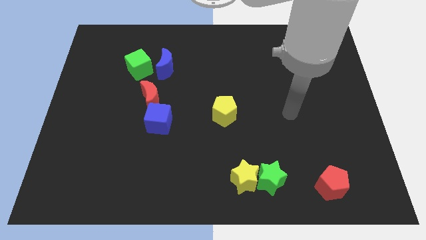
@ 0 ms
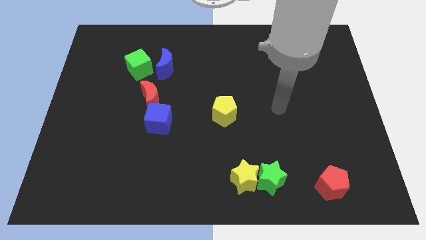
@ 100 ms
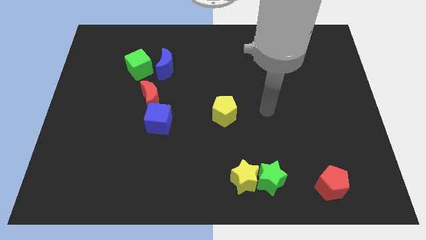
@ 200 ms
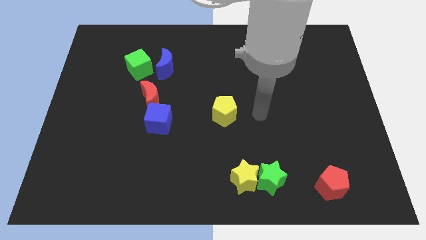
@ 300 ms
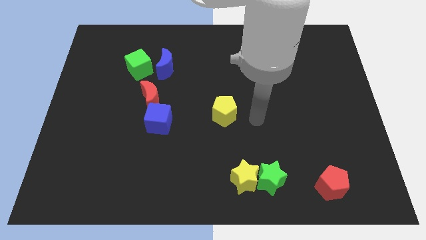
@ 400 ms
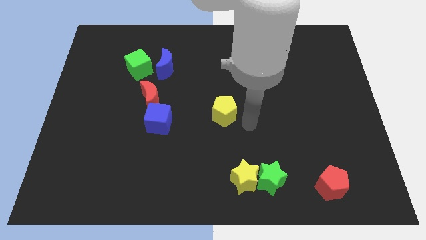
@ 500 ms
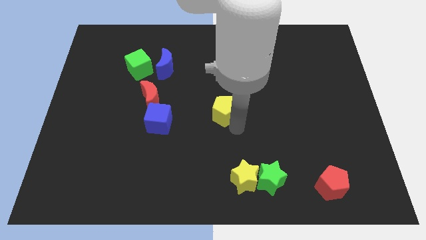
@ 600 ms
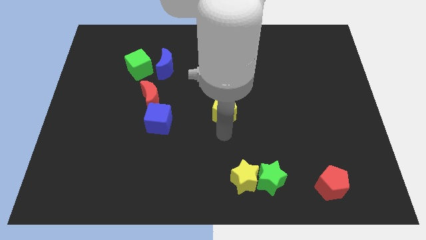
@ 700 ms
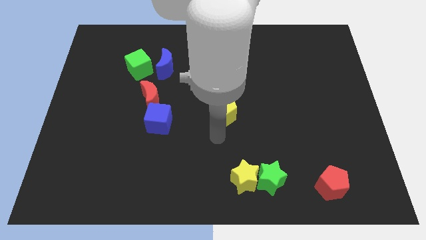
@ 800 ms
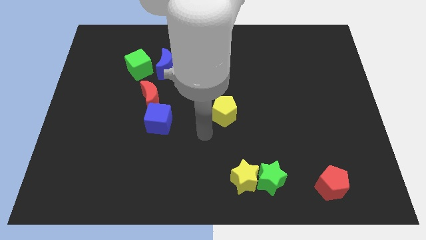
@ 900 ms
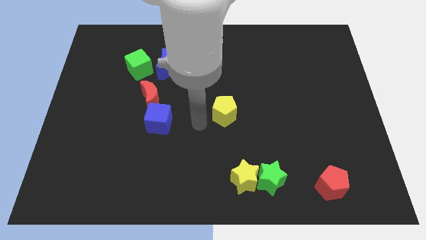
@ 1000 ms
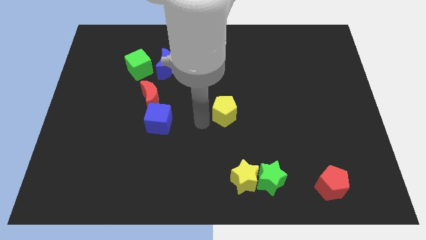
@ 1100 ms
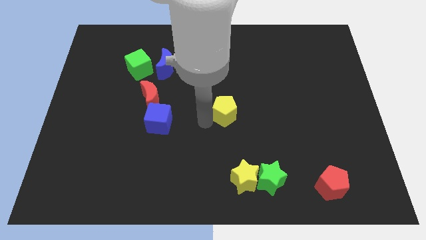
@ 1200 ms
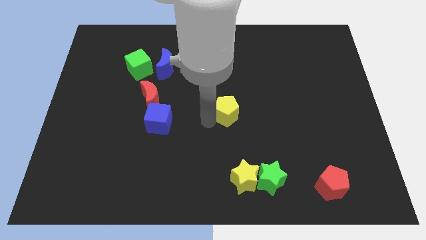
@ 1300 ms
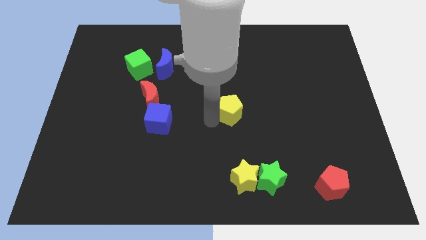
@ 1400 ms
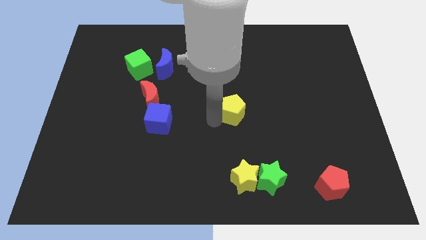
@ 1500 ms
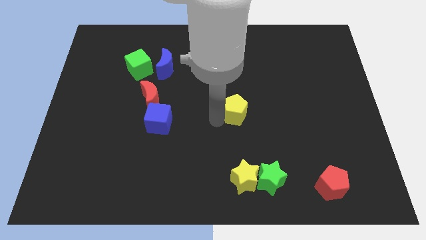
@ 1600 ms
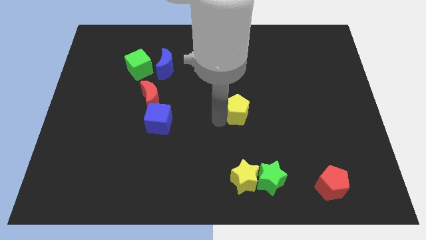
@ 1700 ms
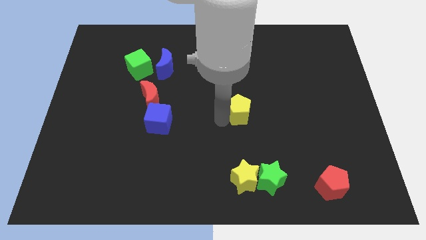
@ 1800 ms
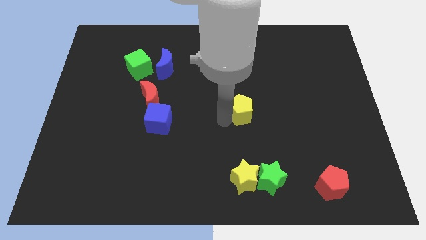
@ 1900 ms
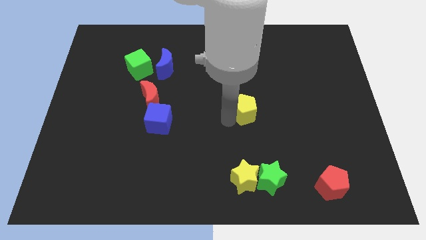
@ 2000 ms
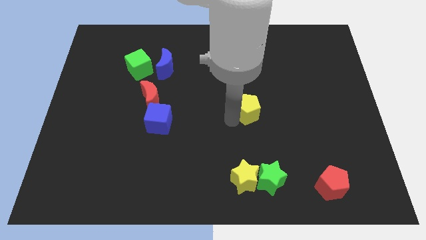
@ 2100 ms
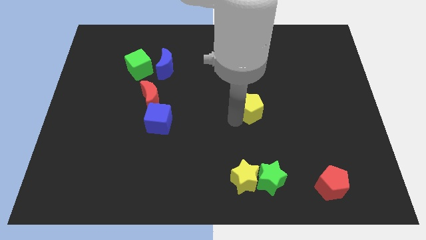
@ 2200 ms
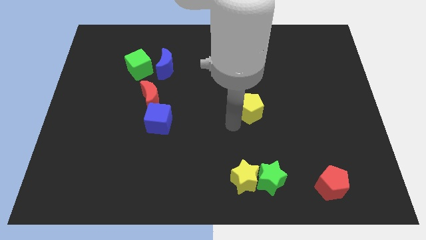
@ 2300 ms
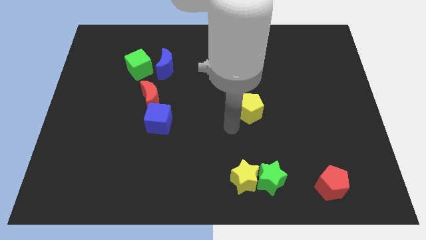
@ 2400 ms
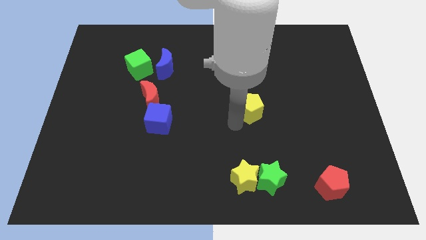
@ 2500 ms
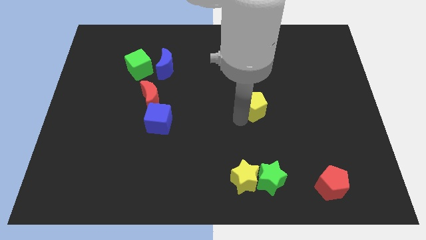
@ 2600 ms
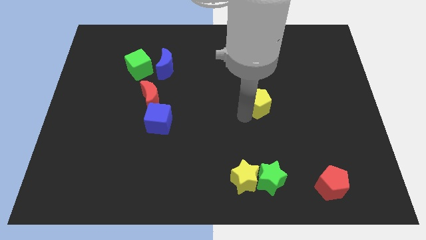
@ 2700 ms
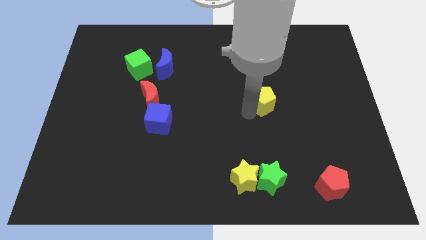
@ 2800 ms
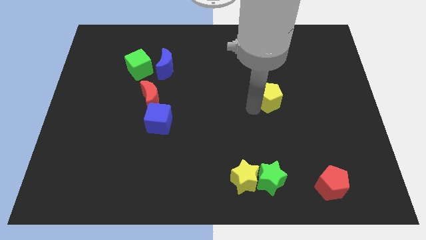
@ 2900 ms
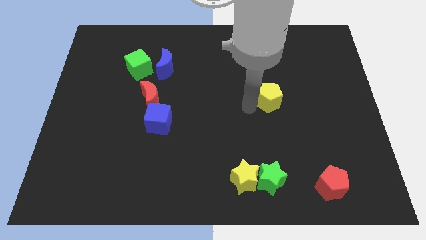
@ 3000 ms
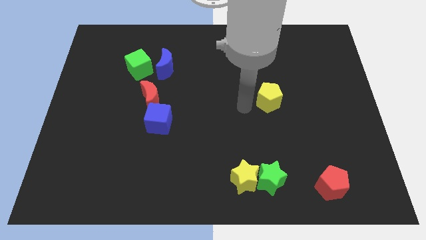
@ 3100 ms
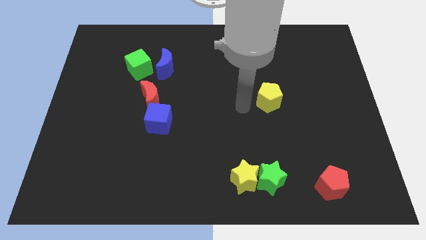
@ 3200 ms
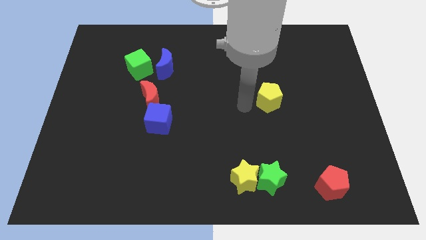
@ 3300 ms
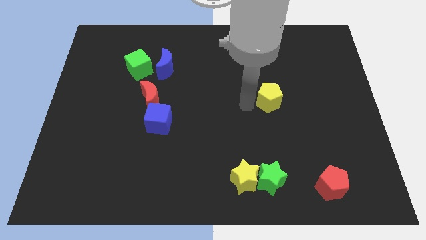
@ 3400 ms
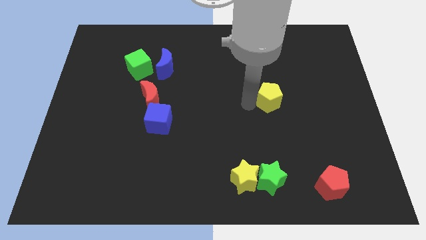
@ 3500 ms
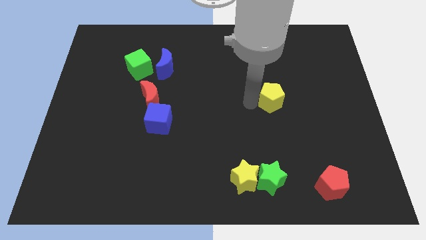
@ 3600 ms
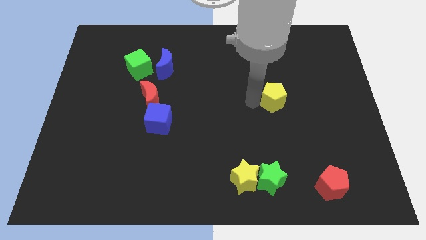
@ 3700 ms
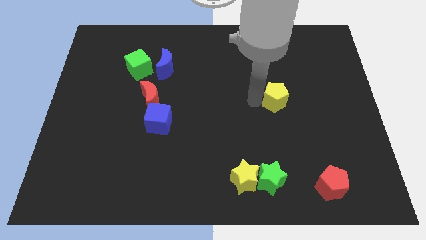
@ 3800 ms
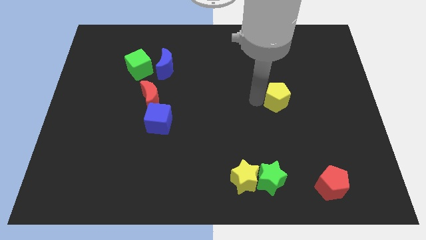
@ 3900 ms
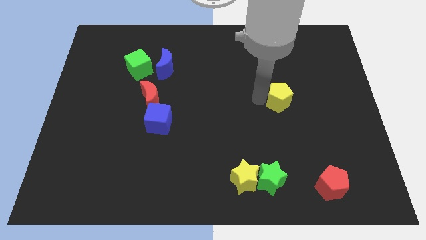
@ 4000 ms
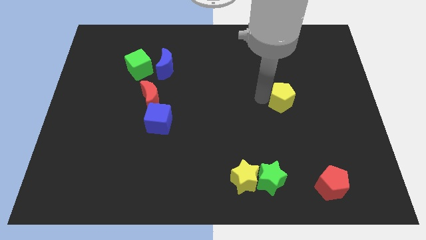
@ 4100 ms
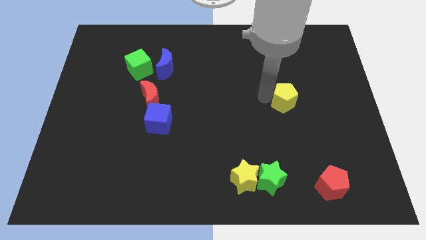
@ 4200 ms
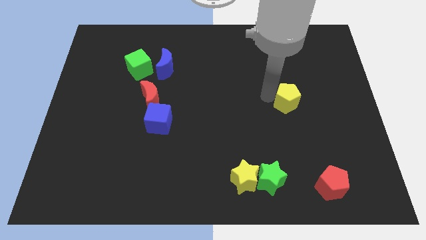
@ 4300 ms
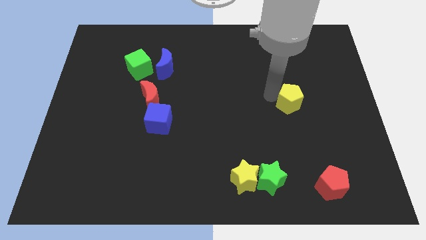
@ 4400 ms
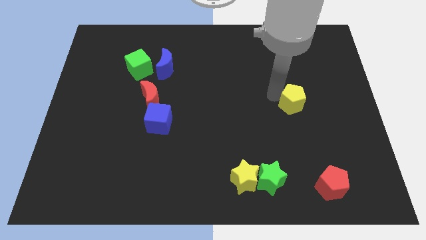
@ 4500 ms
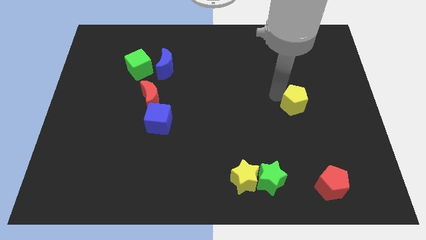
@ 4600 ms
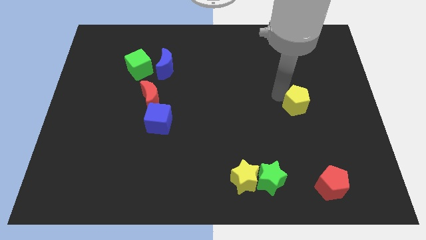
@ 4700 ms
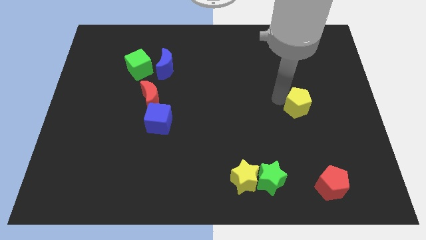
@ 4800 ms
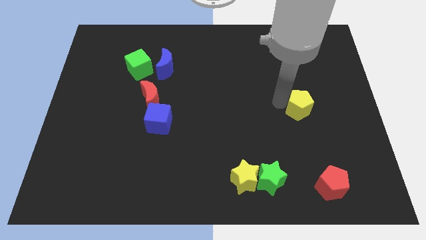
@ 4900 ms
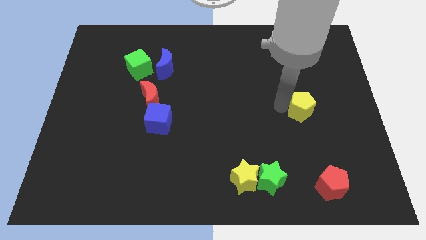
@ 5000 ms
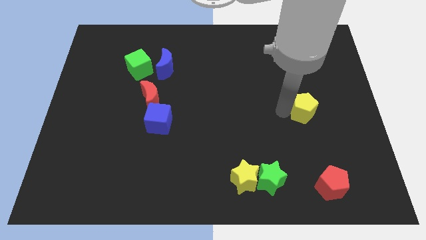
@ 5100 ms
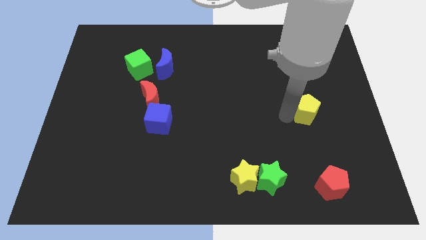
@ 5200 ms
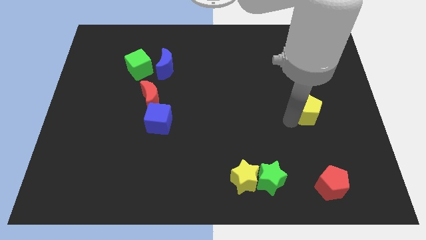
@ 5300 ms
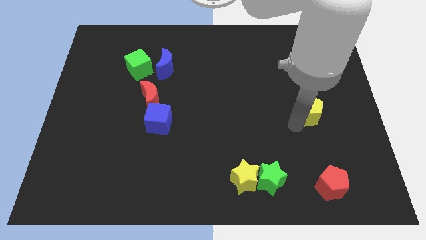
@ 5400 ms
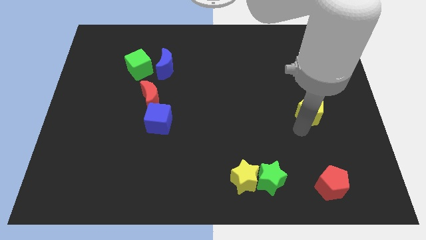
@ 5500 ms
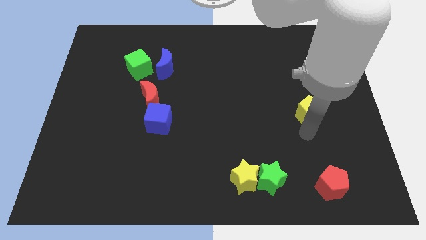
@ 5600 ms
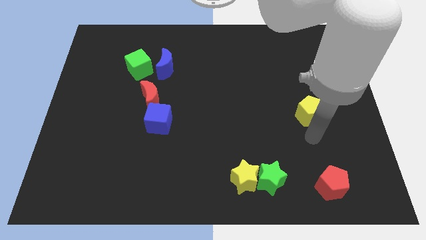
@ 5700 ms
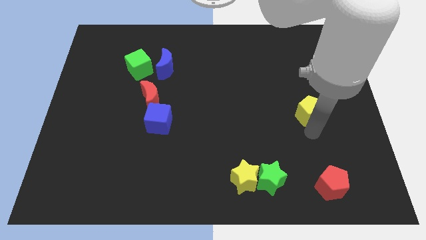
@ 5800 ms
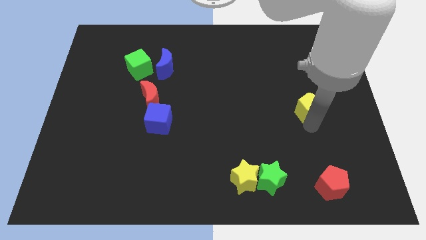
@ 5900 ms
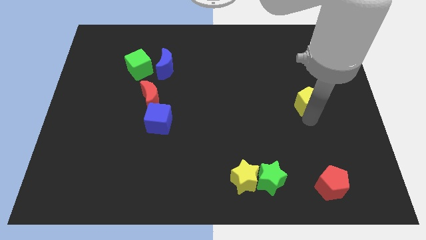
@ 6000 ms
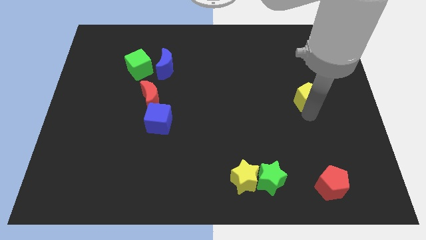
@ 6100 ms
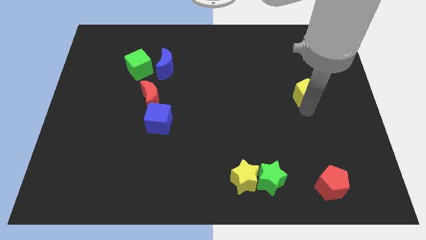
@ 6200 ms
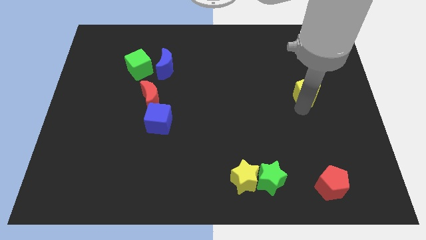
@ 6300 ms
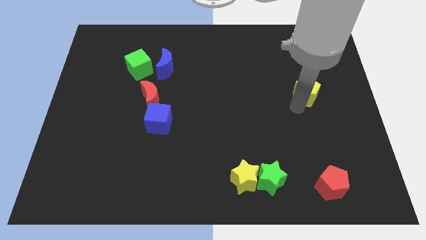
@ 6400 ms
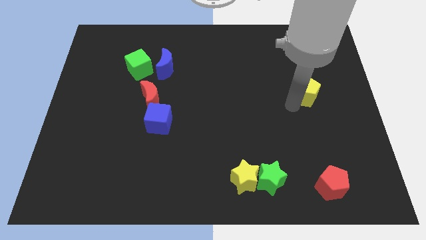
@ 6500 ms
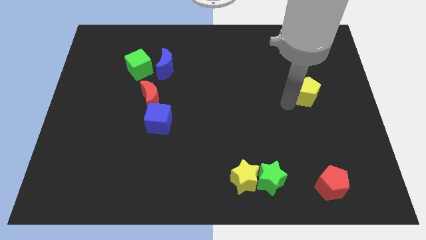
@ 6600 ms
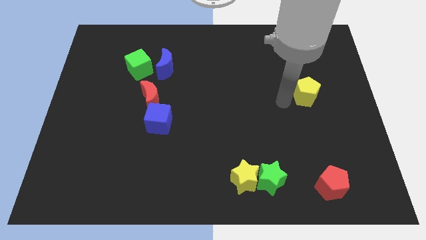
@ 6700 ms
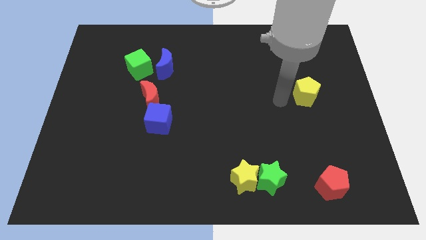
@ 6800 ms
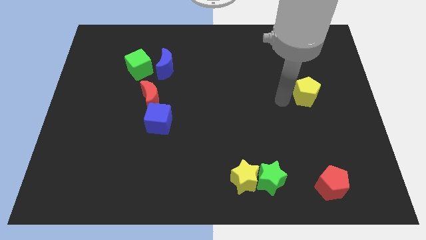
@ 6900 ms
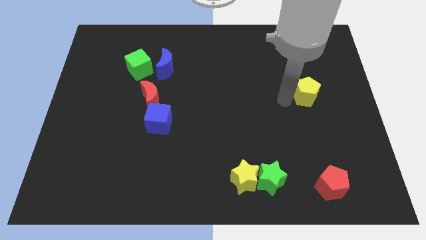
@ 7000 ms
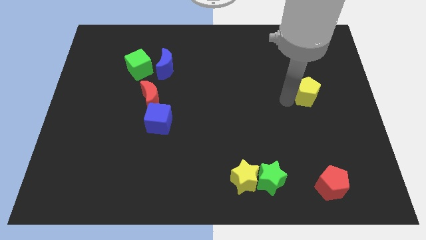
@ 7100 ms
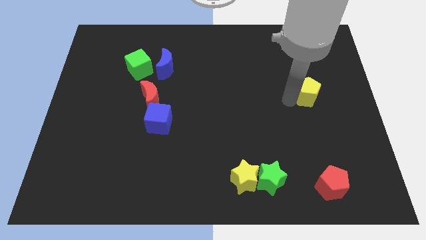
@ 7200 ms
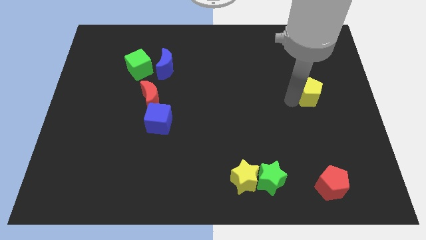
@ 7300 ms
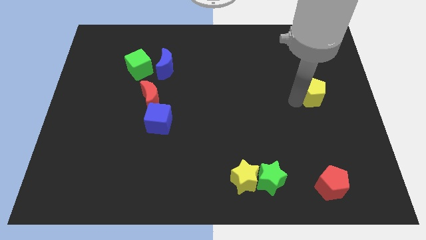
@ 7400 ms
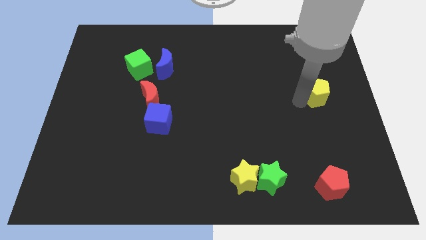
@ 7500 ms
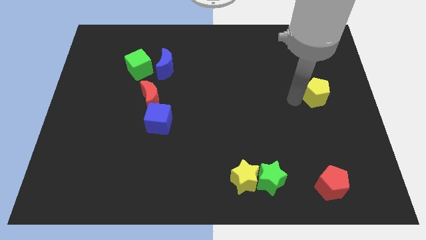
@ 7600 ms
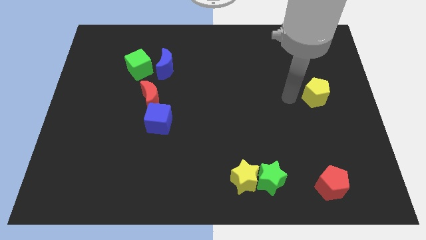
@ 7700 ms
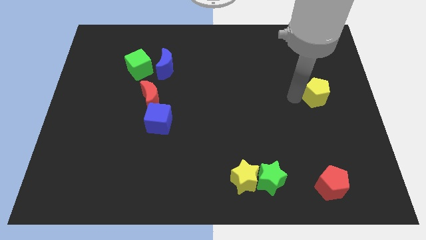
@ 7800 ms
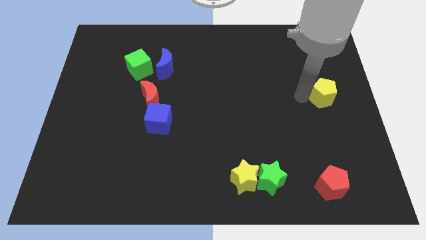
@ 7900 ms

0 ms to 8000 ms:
move the yellow pentagon to the center right
